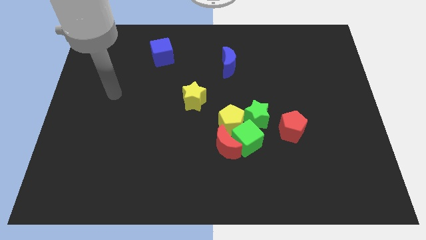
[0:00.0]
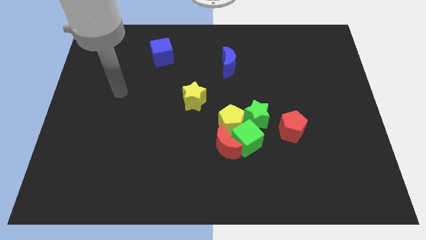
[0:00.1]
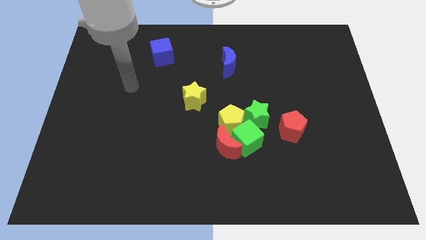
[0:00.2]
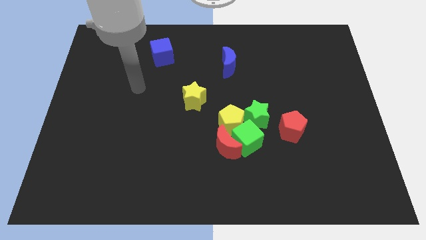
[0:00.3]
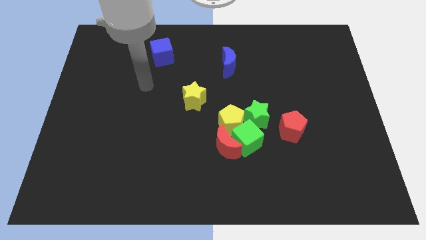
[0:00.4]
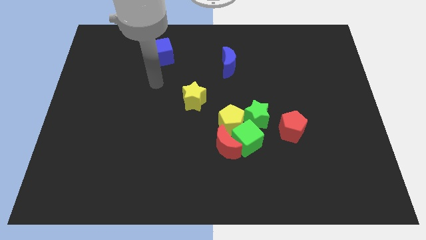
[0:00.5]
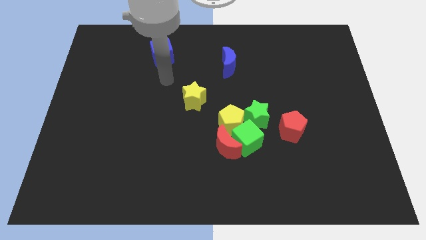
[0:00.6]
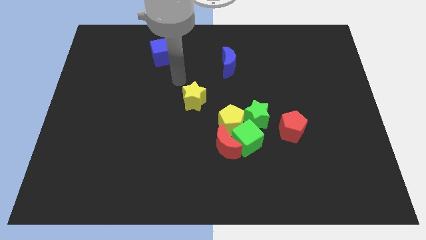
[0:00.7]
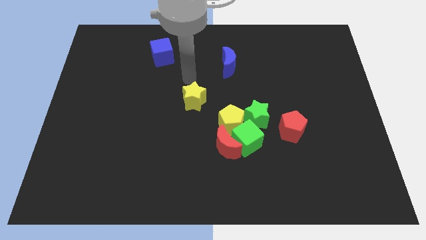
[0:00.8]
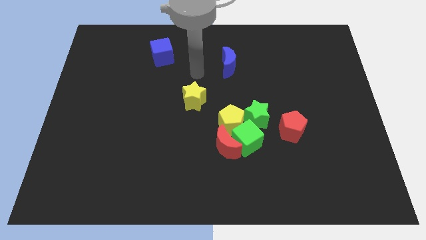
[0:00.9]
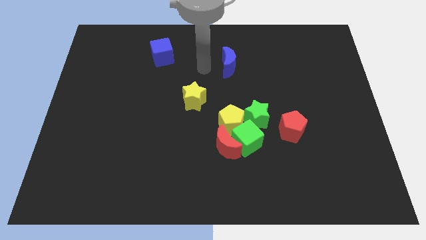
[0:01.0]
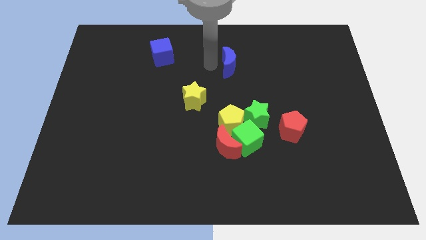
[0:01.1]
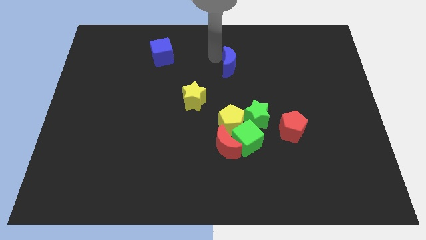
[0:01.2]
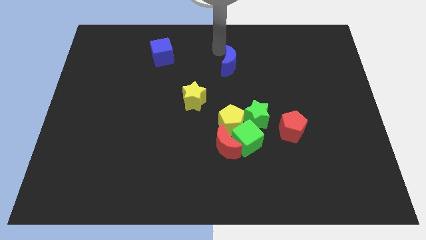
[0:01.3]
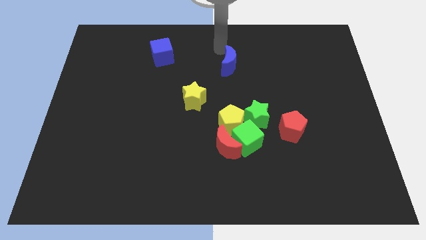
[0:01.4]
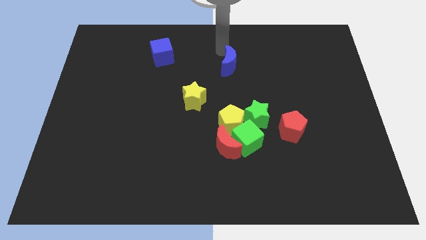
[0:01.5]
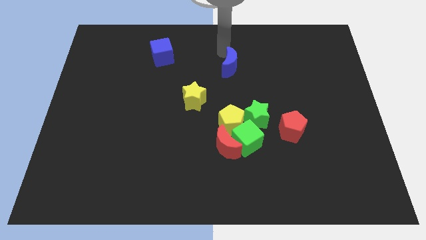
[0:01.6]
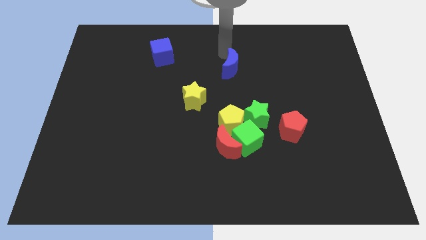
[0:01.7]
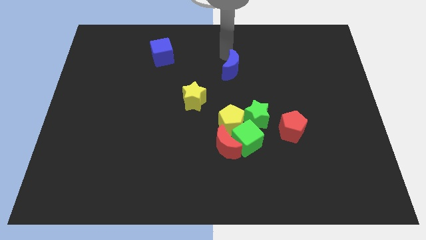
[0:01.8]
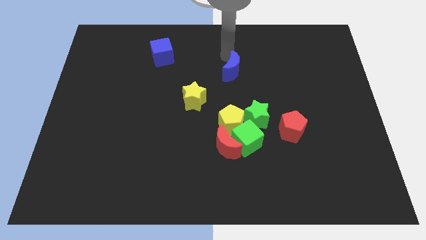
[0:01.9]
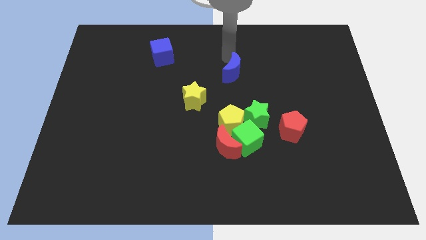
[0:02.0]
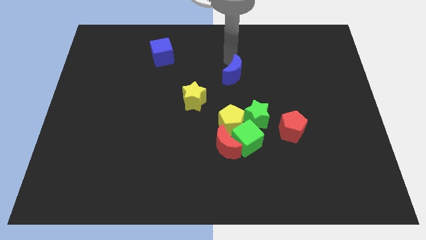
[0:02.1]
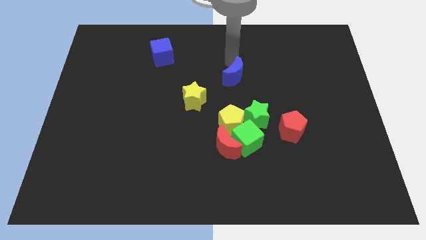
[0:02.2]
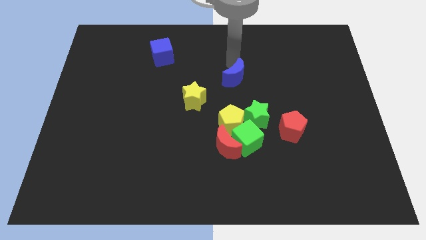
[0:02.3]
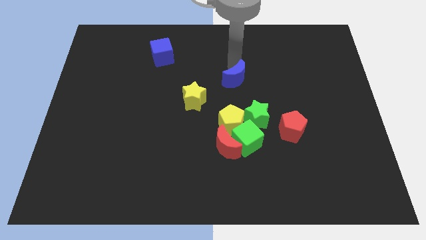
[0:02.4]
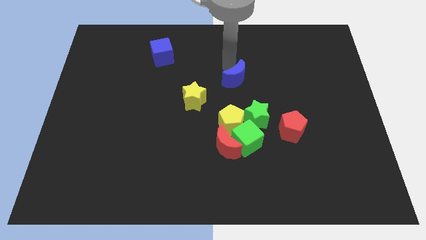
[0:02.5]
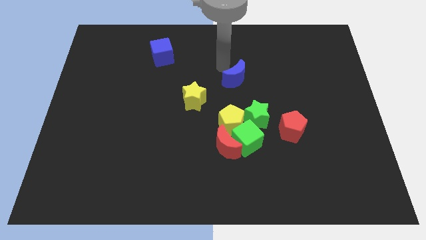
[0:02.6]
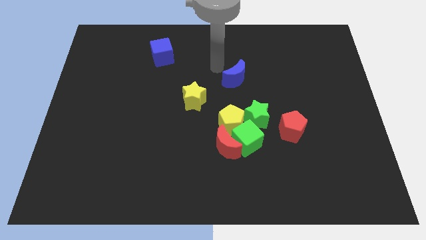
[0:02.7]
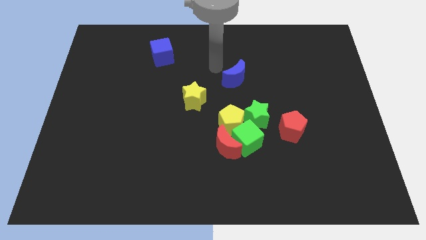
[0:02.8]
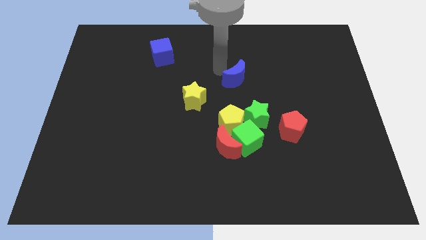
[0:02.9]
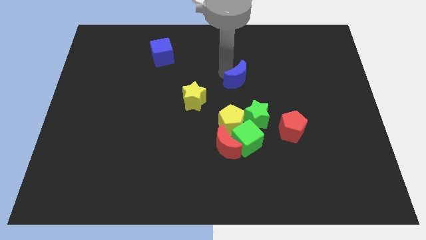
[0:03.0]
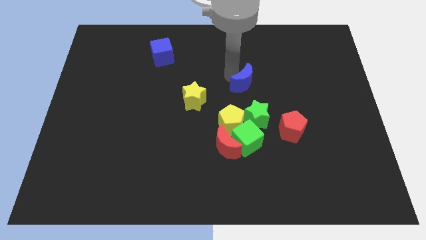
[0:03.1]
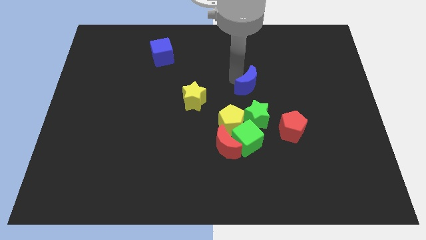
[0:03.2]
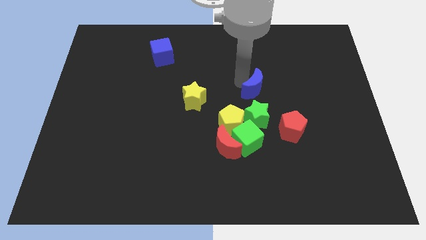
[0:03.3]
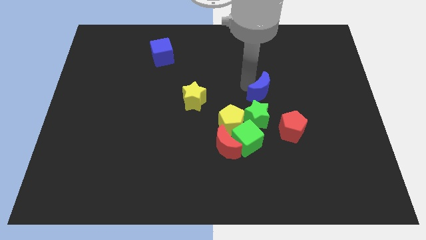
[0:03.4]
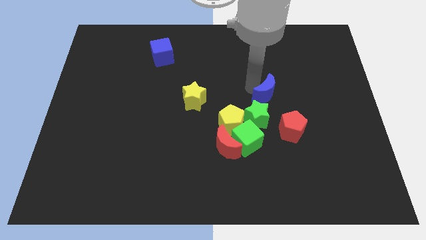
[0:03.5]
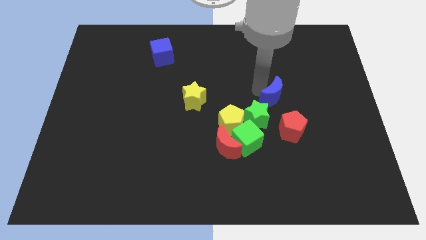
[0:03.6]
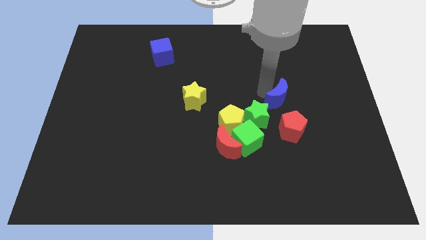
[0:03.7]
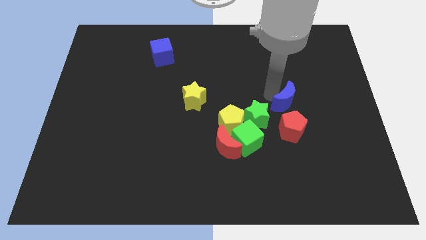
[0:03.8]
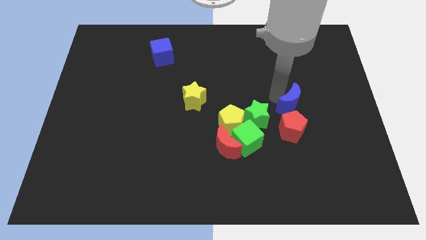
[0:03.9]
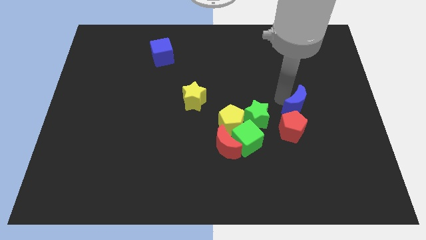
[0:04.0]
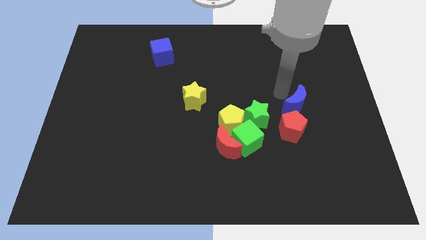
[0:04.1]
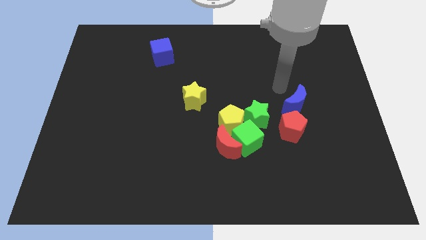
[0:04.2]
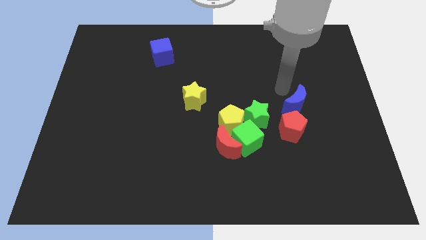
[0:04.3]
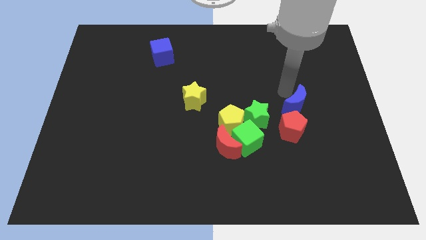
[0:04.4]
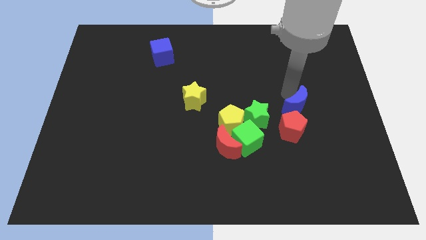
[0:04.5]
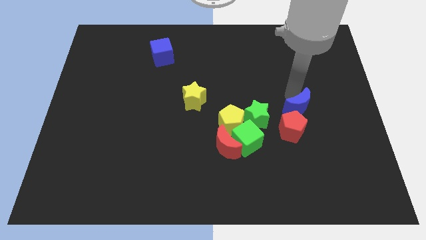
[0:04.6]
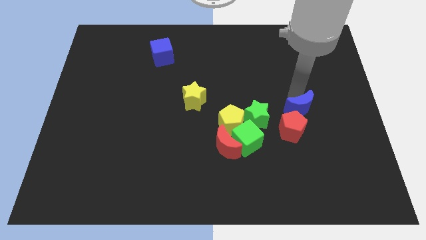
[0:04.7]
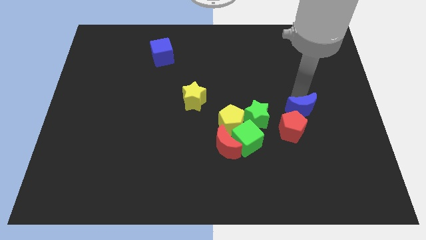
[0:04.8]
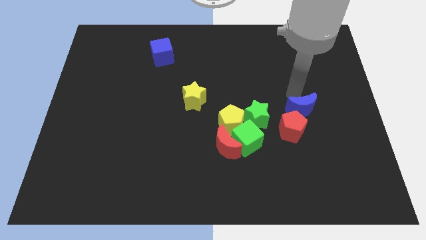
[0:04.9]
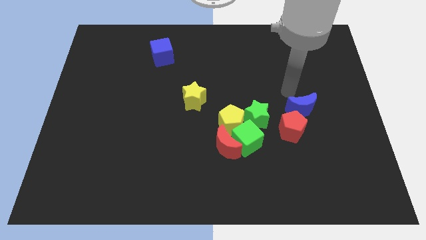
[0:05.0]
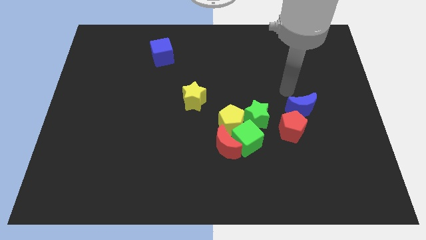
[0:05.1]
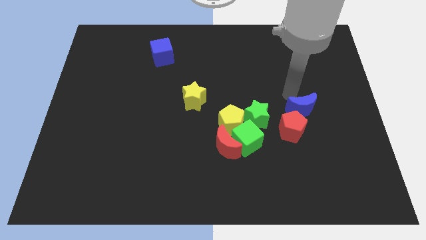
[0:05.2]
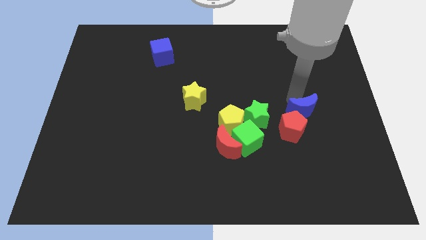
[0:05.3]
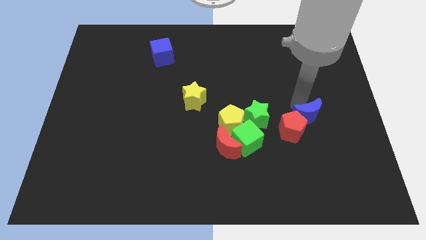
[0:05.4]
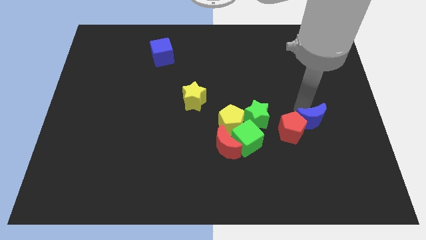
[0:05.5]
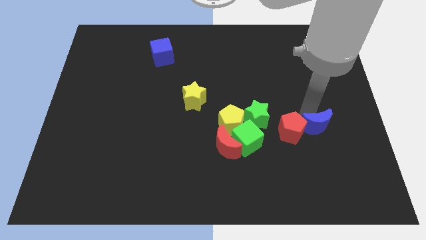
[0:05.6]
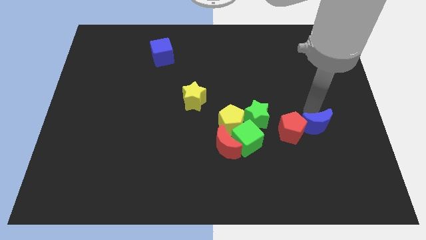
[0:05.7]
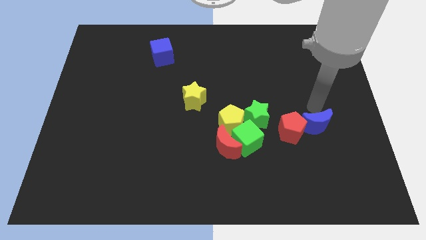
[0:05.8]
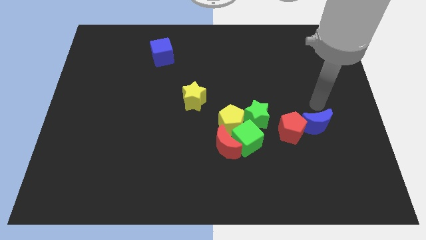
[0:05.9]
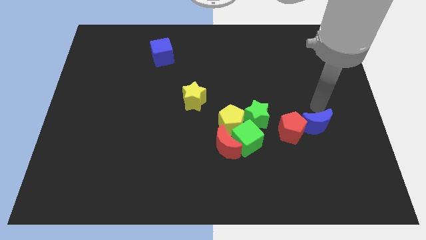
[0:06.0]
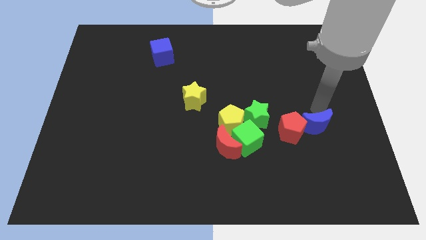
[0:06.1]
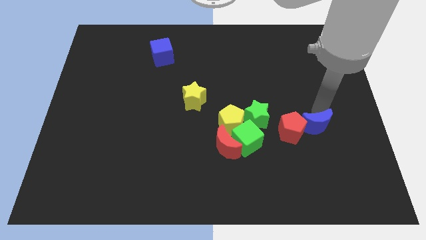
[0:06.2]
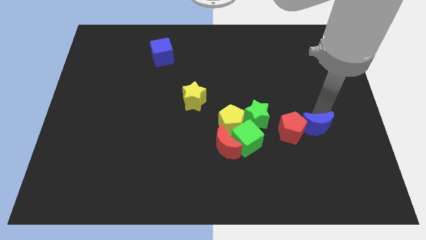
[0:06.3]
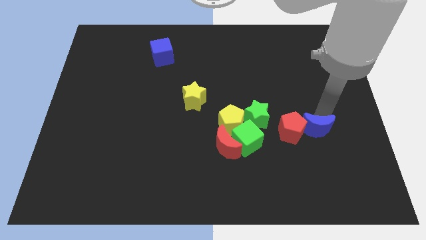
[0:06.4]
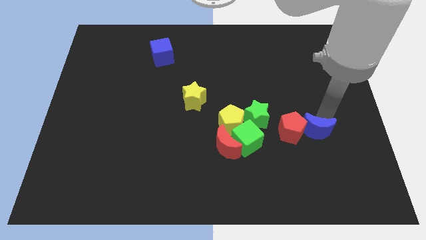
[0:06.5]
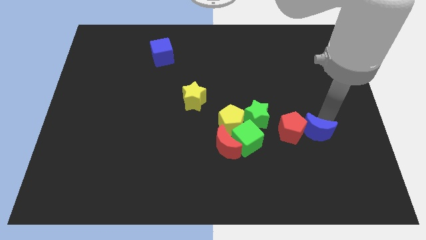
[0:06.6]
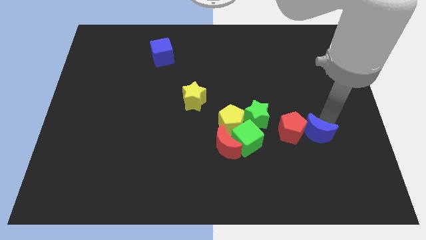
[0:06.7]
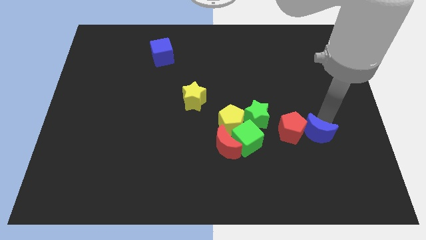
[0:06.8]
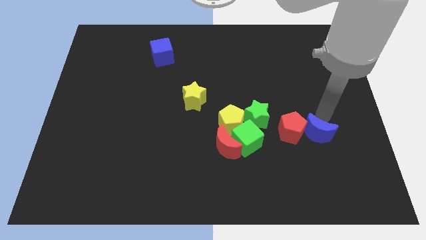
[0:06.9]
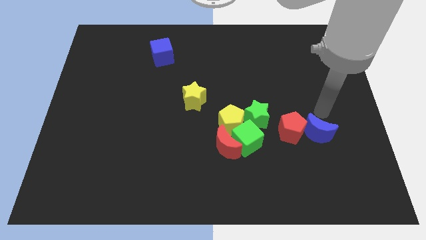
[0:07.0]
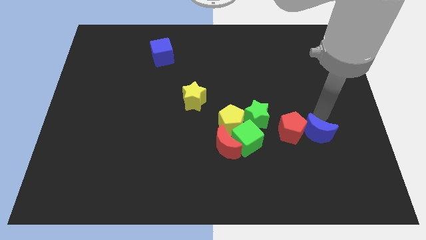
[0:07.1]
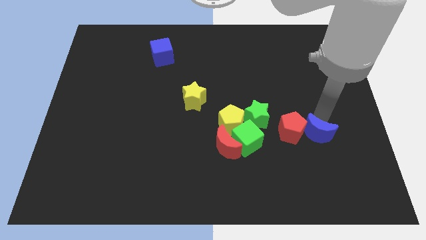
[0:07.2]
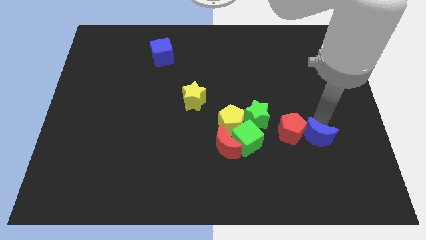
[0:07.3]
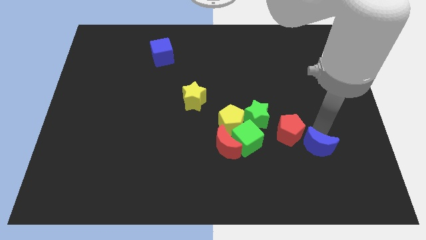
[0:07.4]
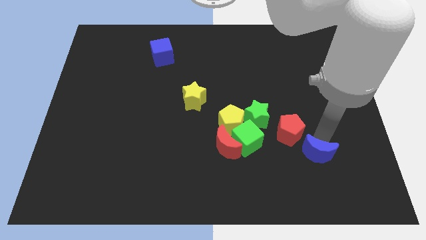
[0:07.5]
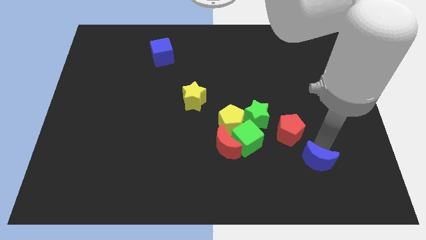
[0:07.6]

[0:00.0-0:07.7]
slide the blue moon to the bottom of the red pentagon
